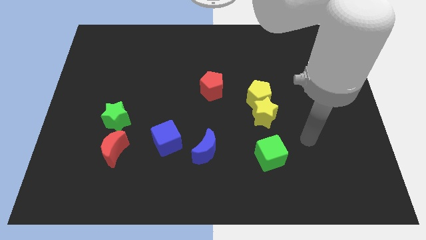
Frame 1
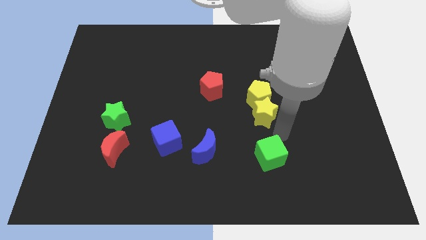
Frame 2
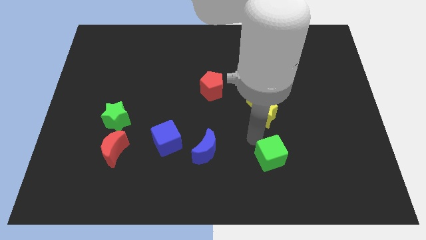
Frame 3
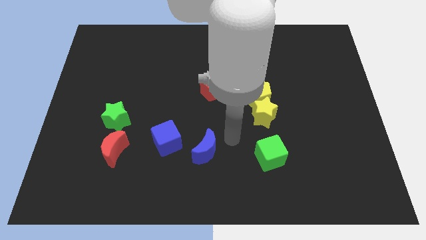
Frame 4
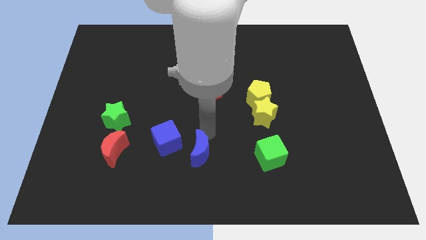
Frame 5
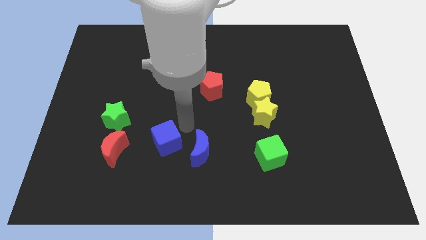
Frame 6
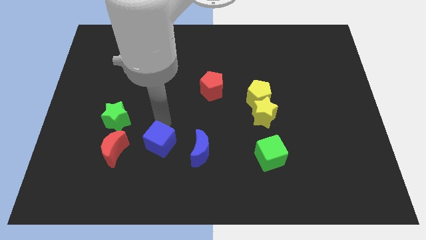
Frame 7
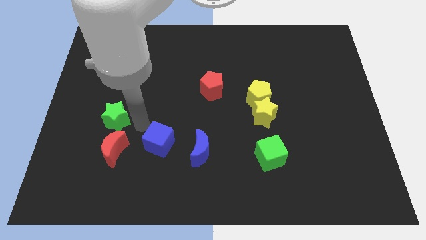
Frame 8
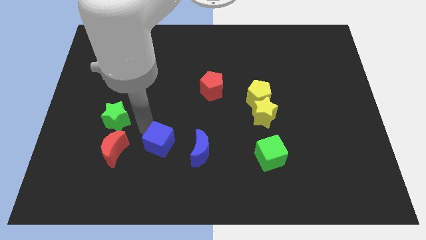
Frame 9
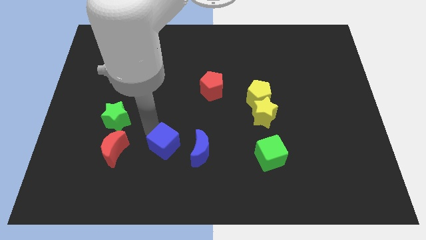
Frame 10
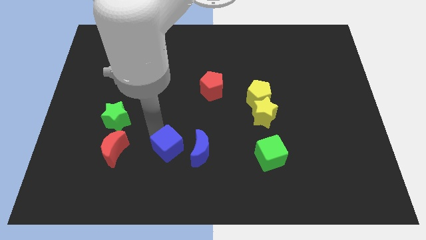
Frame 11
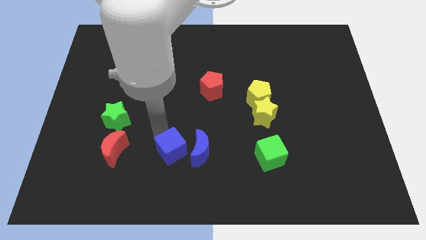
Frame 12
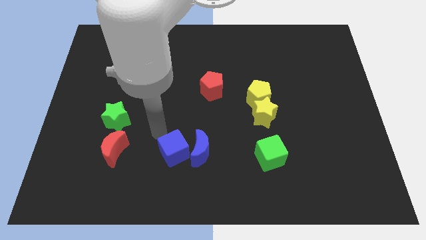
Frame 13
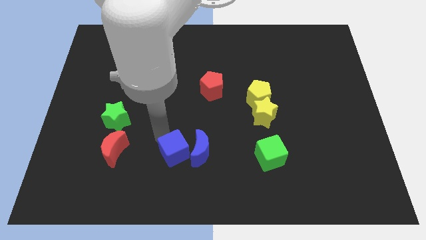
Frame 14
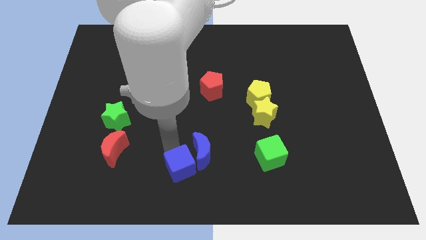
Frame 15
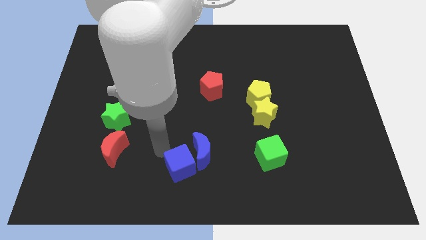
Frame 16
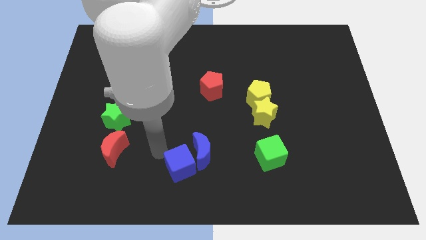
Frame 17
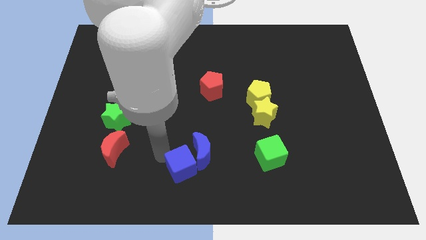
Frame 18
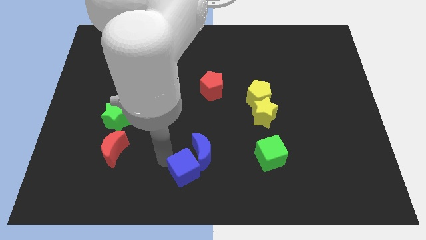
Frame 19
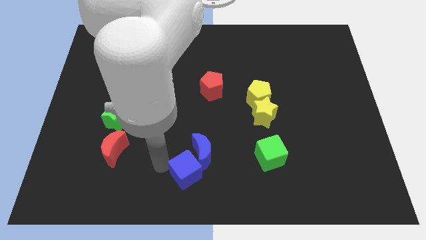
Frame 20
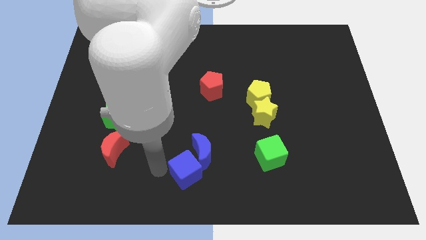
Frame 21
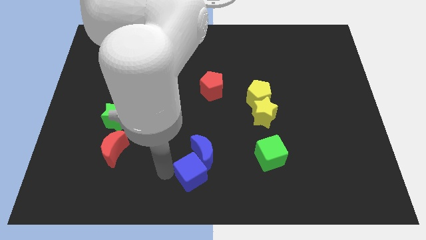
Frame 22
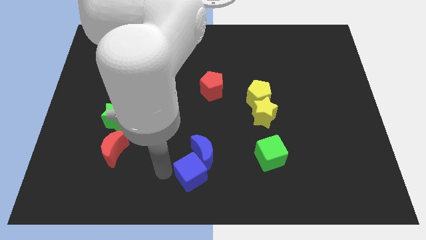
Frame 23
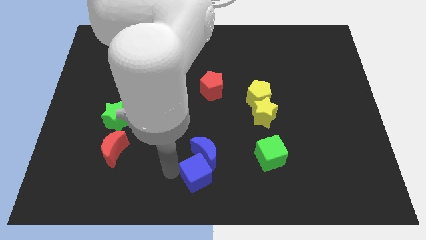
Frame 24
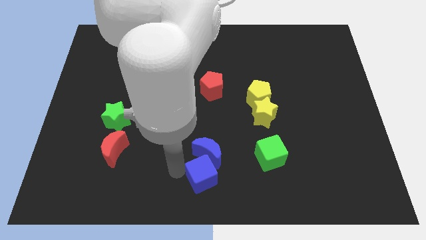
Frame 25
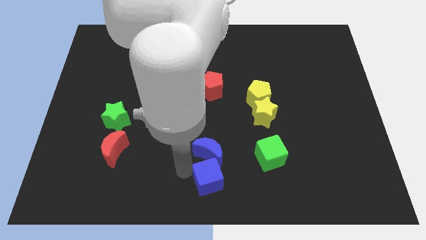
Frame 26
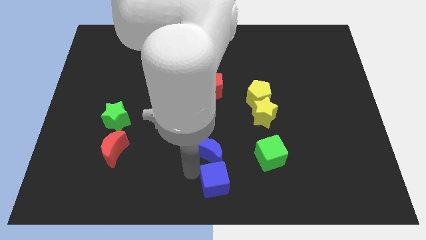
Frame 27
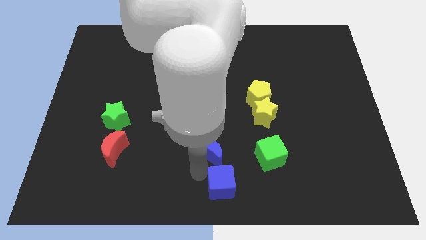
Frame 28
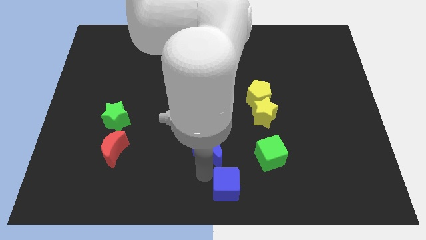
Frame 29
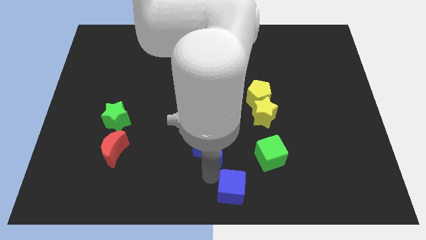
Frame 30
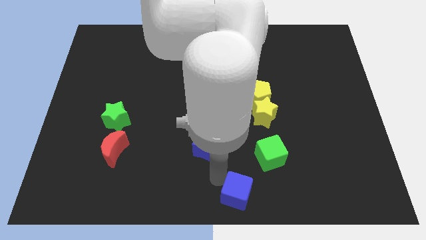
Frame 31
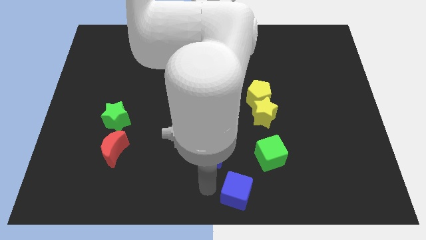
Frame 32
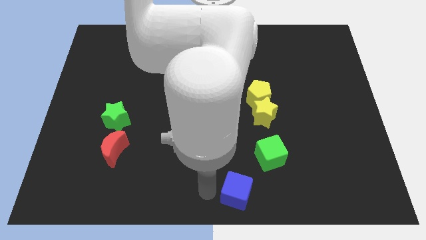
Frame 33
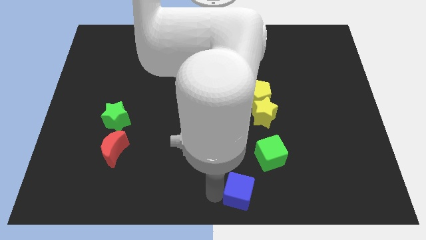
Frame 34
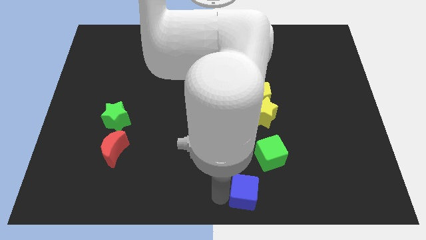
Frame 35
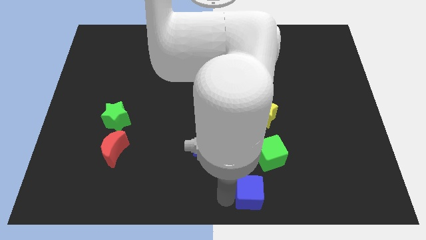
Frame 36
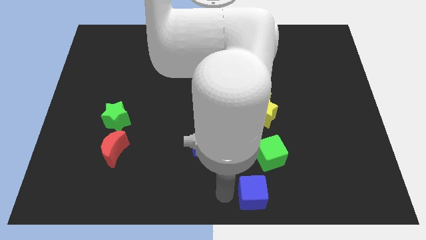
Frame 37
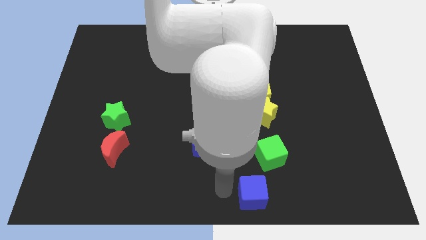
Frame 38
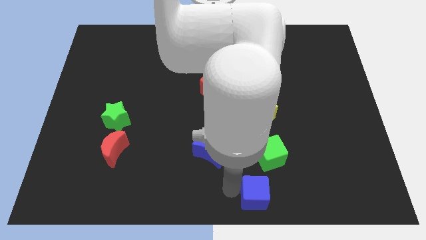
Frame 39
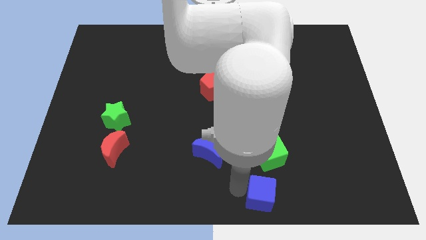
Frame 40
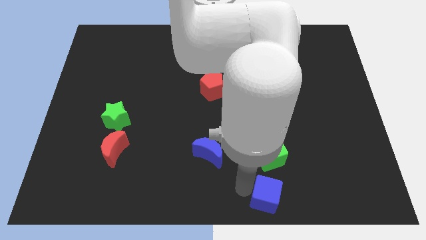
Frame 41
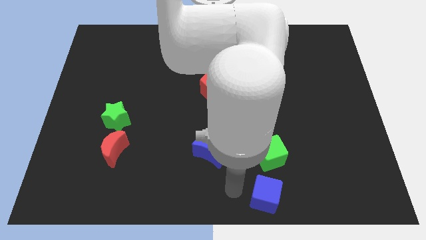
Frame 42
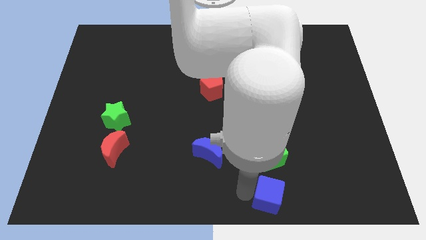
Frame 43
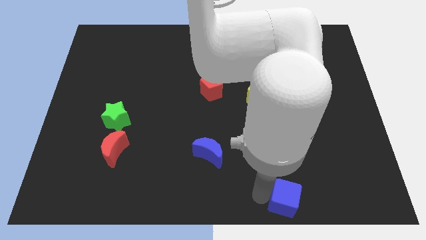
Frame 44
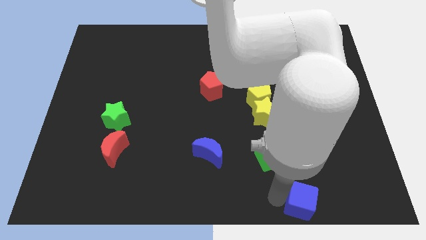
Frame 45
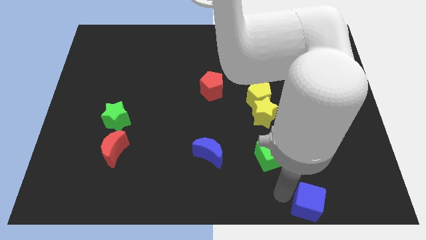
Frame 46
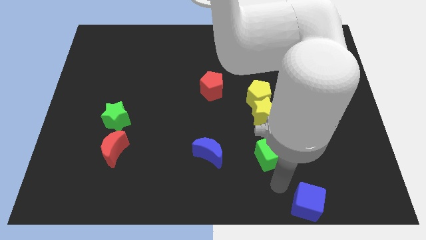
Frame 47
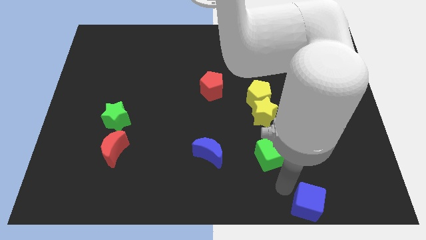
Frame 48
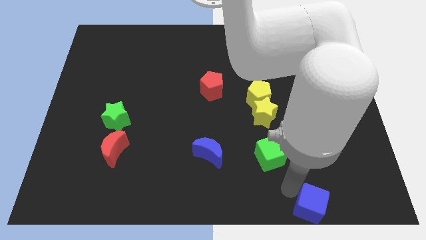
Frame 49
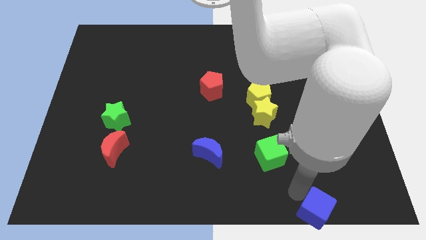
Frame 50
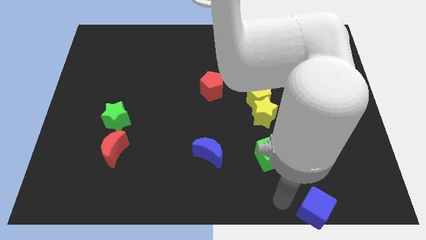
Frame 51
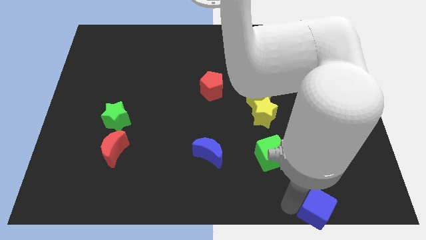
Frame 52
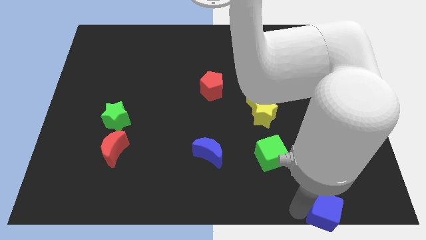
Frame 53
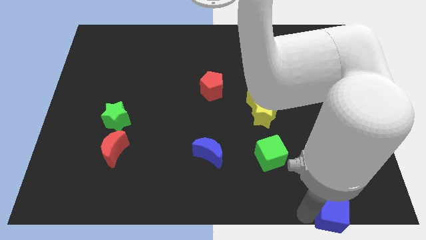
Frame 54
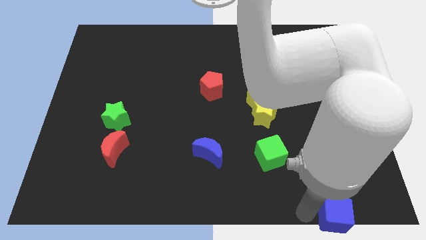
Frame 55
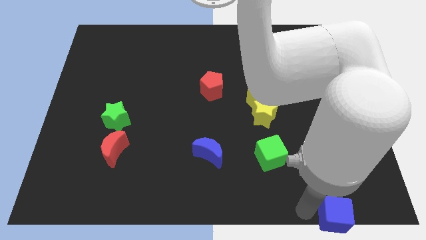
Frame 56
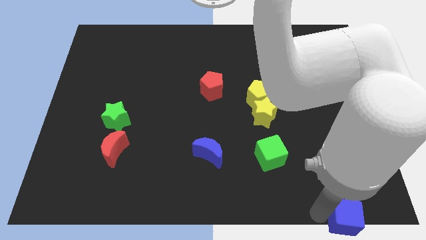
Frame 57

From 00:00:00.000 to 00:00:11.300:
put the blue cube to the bottom right of the board
